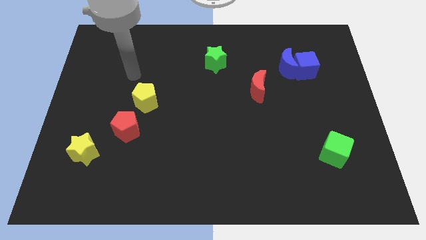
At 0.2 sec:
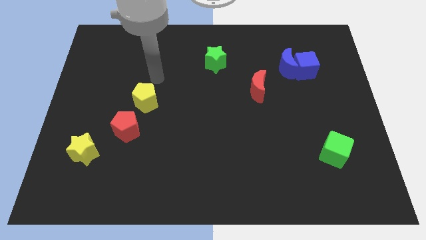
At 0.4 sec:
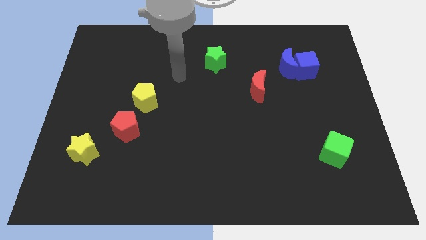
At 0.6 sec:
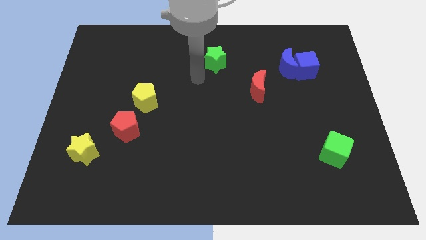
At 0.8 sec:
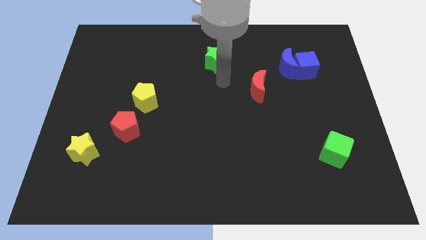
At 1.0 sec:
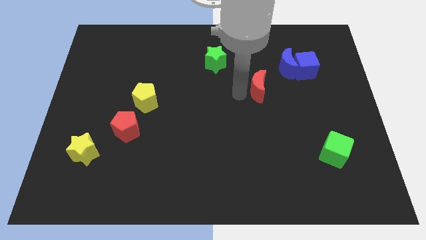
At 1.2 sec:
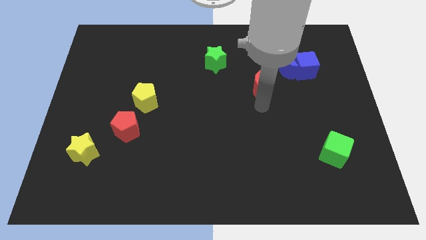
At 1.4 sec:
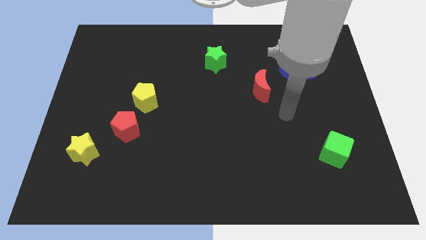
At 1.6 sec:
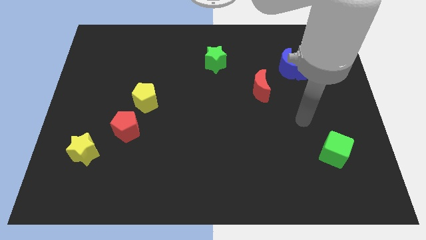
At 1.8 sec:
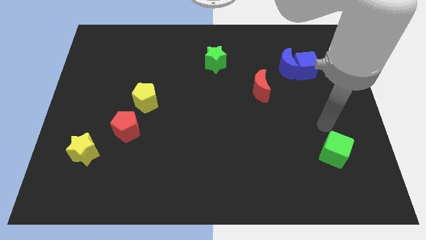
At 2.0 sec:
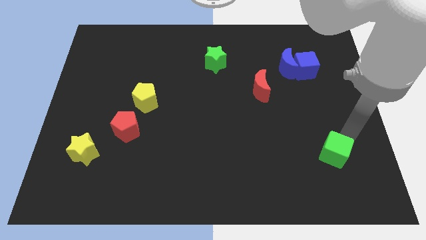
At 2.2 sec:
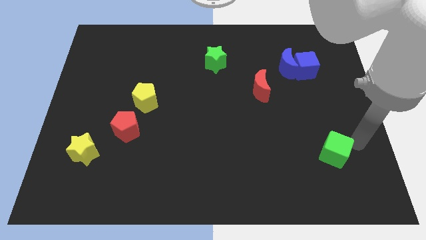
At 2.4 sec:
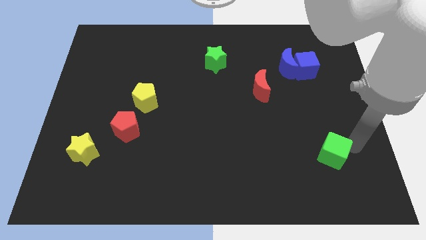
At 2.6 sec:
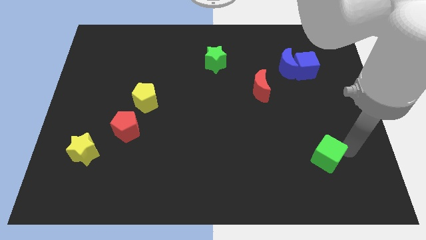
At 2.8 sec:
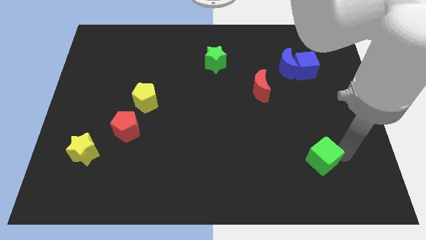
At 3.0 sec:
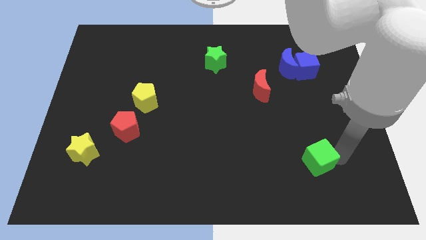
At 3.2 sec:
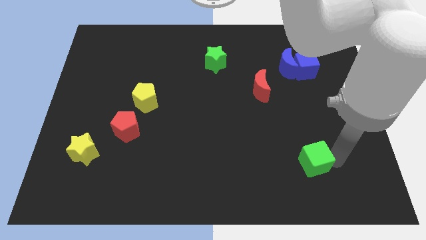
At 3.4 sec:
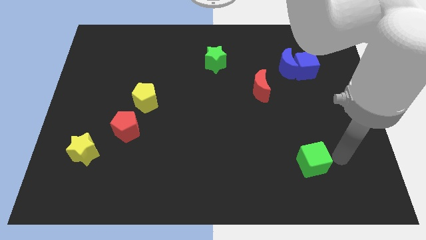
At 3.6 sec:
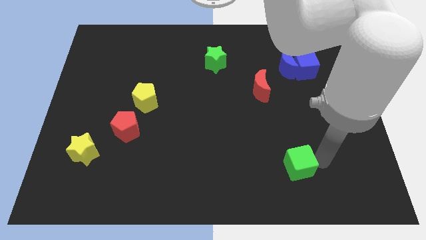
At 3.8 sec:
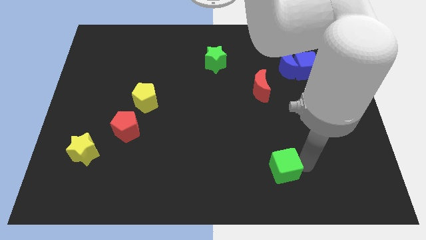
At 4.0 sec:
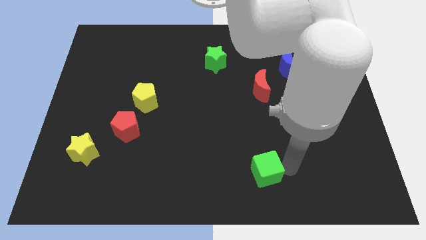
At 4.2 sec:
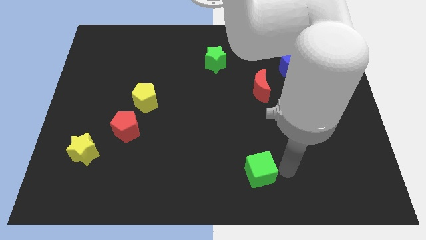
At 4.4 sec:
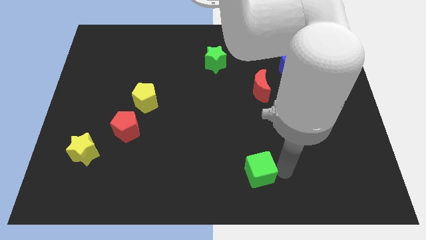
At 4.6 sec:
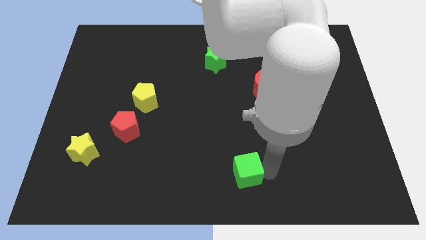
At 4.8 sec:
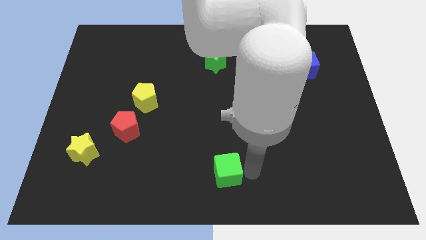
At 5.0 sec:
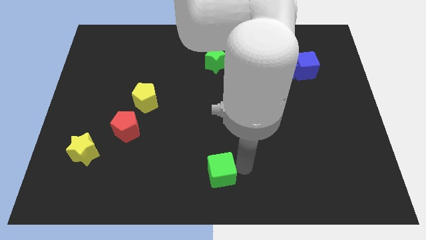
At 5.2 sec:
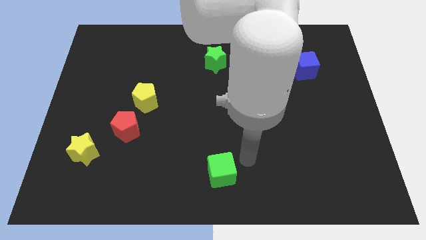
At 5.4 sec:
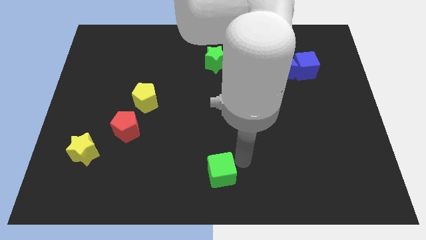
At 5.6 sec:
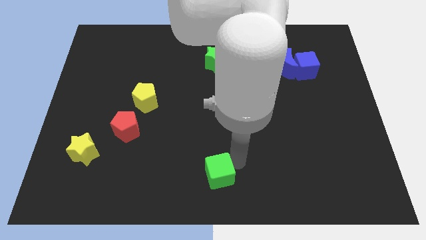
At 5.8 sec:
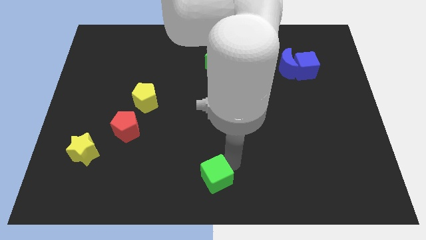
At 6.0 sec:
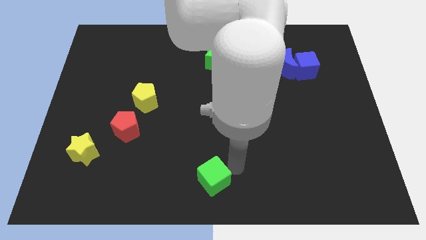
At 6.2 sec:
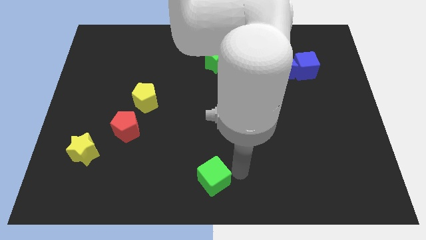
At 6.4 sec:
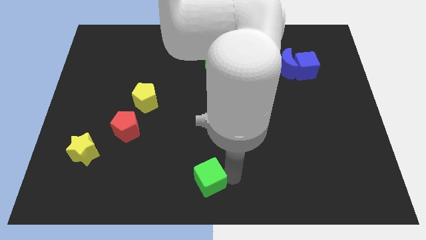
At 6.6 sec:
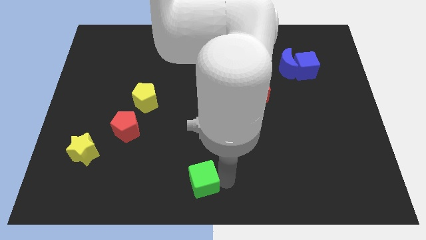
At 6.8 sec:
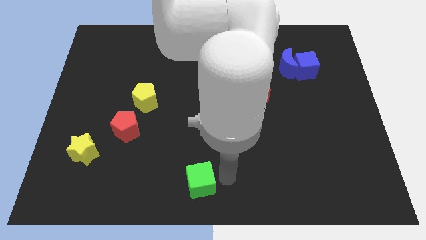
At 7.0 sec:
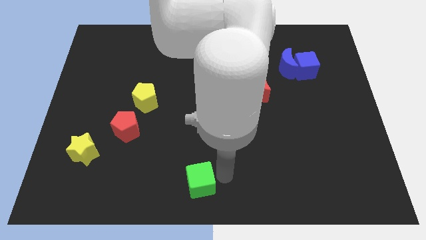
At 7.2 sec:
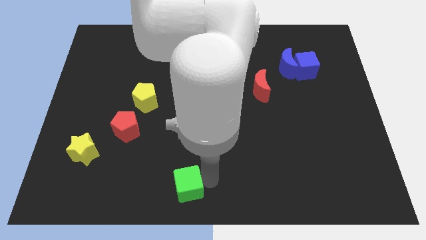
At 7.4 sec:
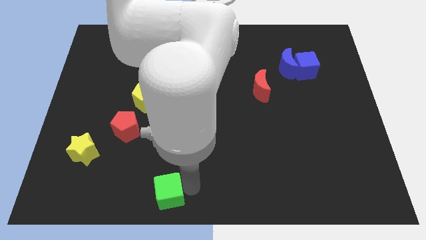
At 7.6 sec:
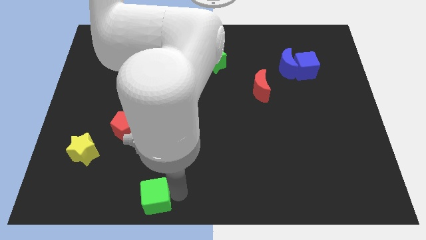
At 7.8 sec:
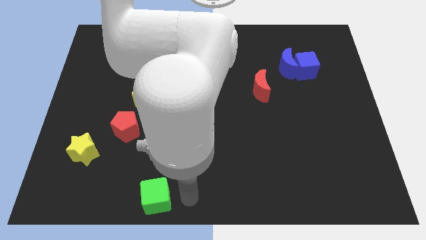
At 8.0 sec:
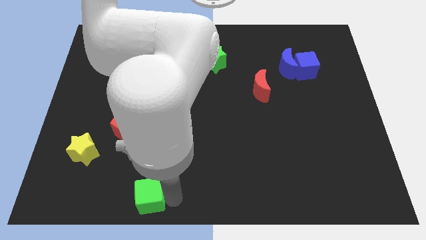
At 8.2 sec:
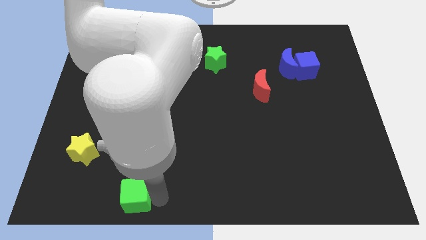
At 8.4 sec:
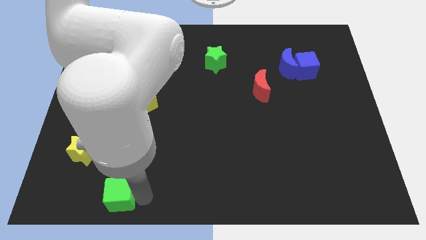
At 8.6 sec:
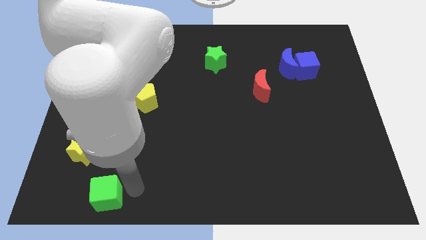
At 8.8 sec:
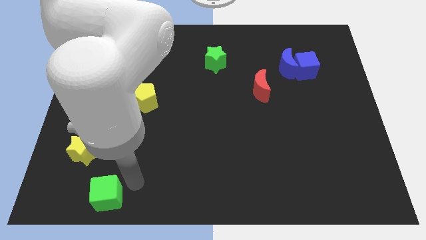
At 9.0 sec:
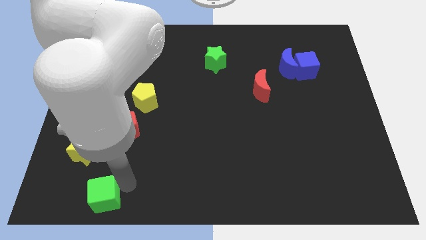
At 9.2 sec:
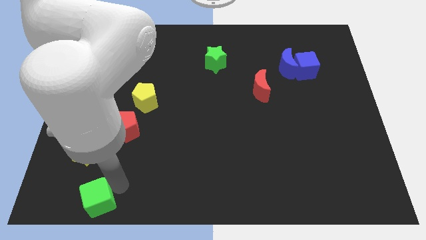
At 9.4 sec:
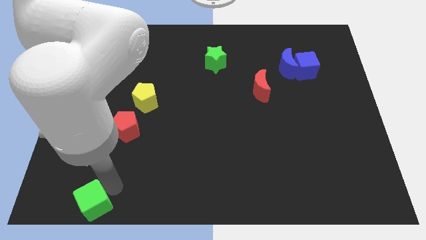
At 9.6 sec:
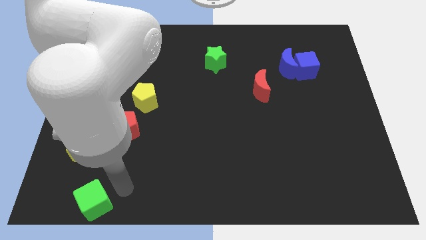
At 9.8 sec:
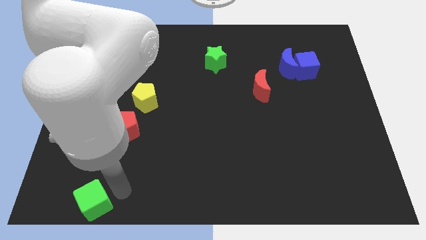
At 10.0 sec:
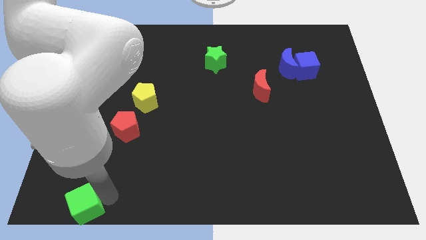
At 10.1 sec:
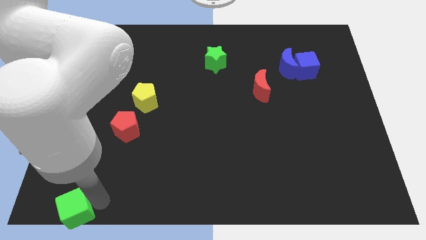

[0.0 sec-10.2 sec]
put the green cube to the bottom left of the board

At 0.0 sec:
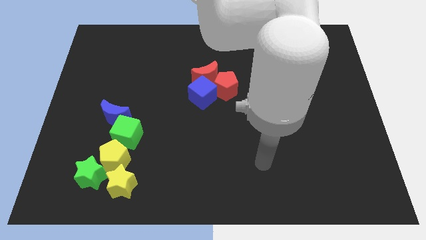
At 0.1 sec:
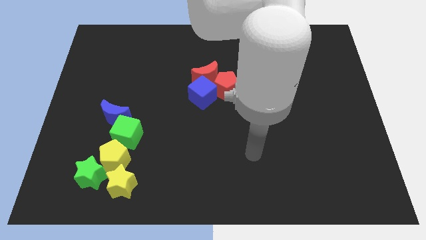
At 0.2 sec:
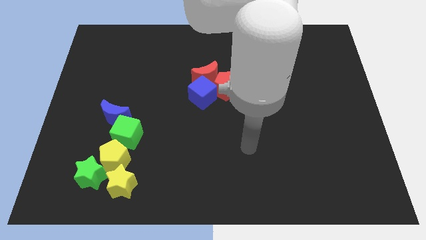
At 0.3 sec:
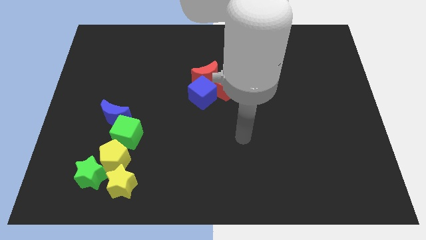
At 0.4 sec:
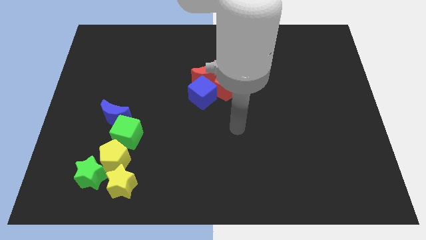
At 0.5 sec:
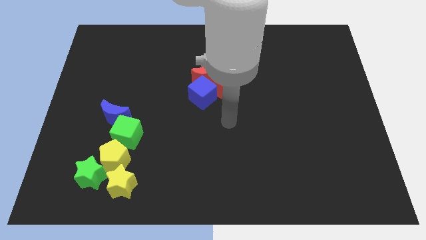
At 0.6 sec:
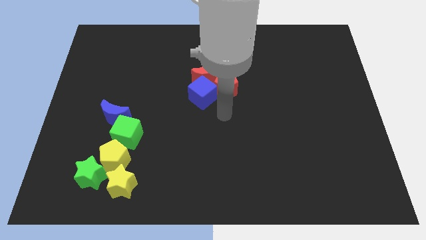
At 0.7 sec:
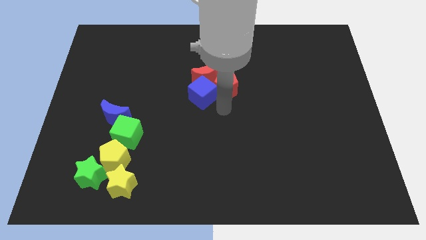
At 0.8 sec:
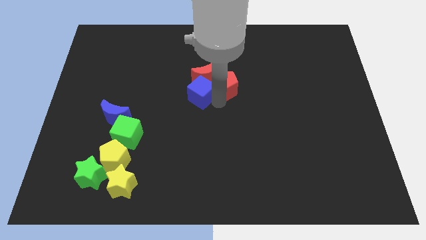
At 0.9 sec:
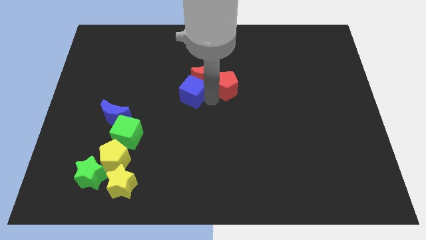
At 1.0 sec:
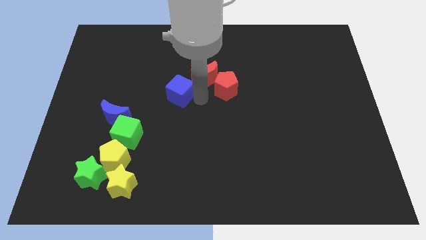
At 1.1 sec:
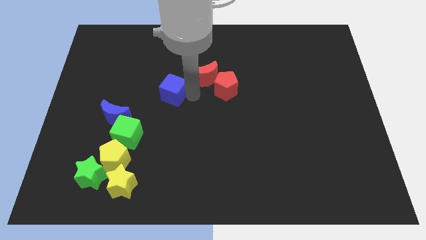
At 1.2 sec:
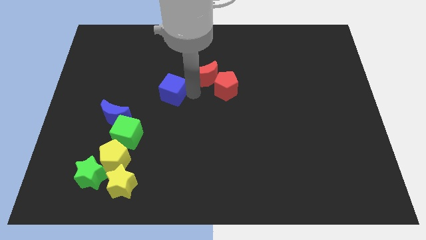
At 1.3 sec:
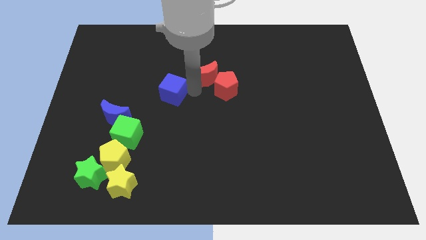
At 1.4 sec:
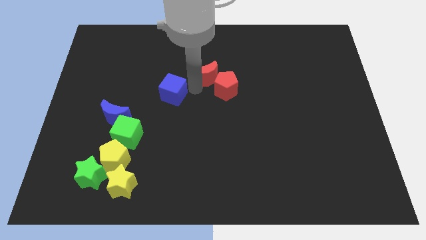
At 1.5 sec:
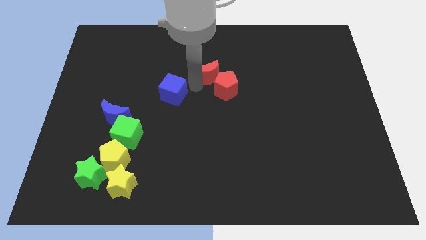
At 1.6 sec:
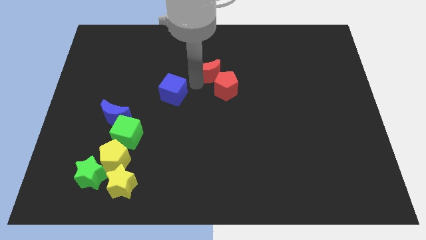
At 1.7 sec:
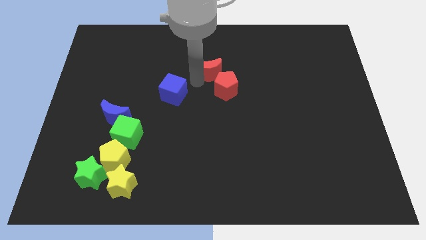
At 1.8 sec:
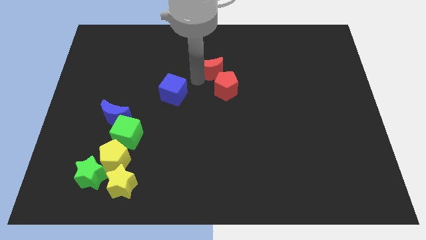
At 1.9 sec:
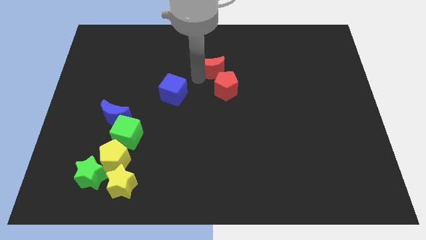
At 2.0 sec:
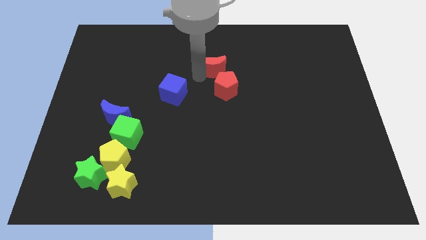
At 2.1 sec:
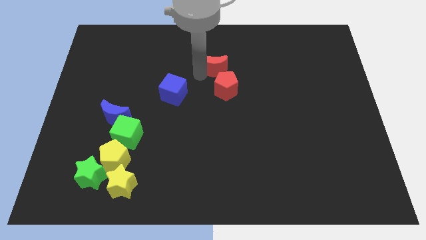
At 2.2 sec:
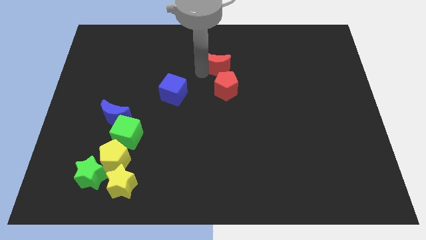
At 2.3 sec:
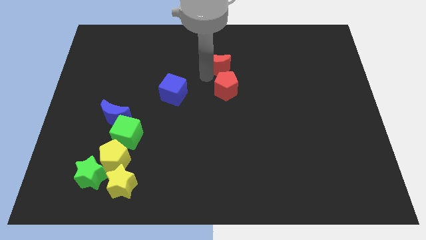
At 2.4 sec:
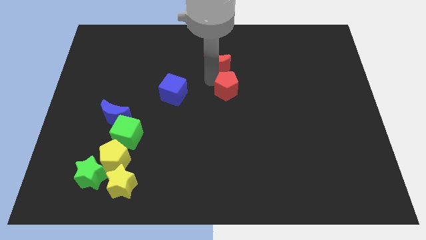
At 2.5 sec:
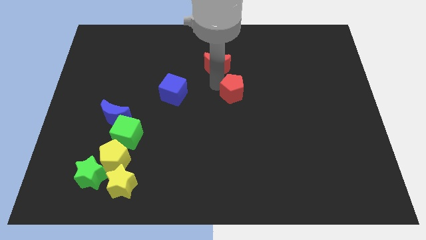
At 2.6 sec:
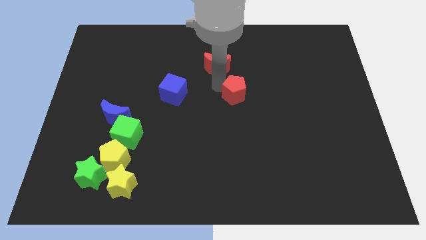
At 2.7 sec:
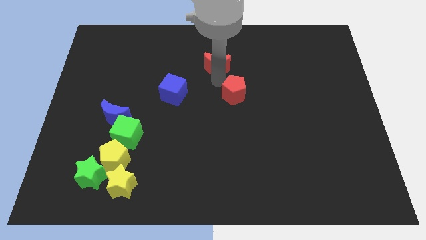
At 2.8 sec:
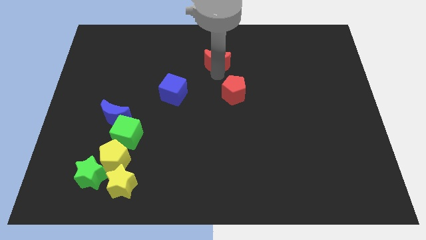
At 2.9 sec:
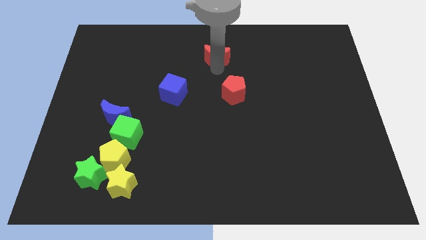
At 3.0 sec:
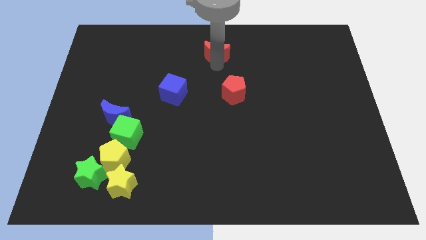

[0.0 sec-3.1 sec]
slide the red moon to the top
